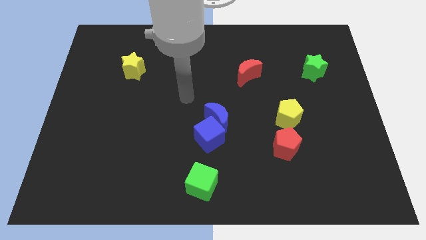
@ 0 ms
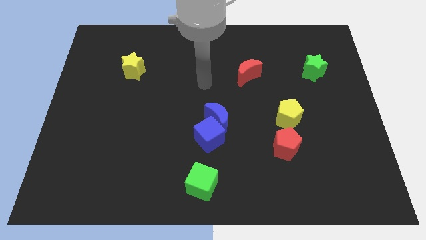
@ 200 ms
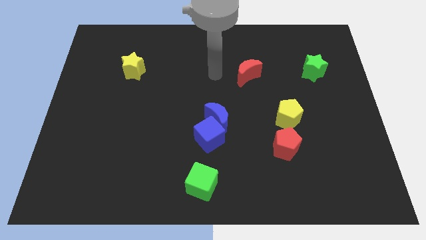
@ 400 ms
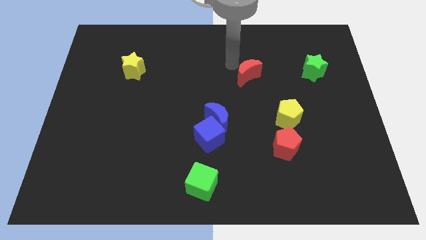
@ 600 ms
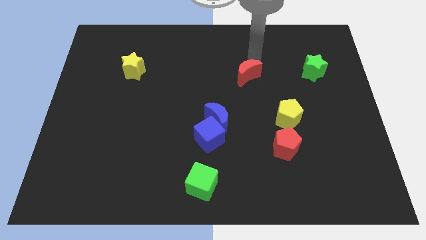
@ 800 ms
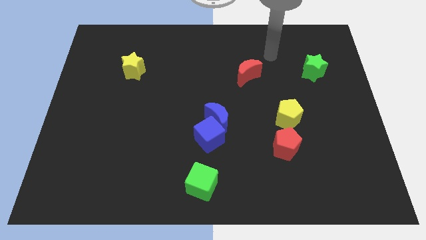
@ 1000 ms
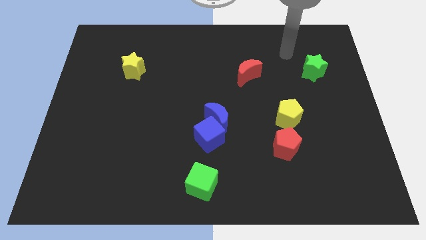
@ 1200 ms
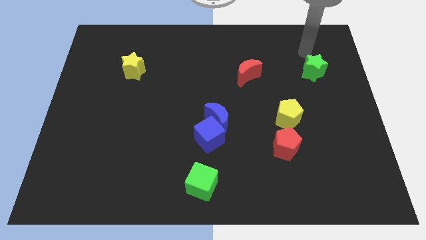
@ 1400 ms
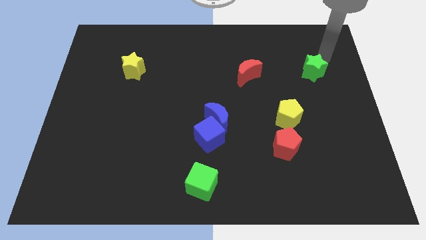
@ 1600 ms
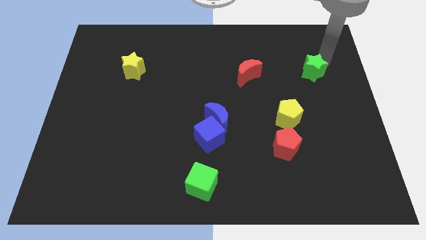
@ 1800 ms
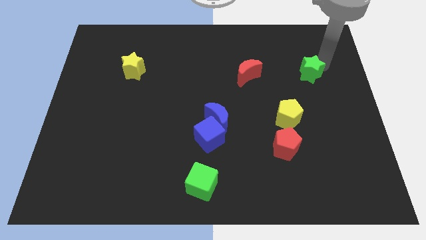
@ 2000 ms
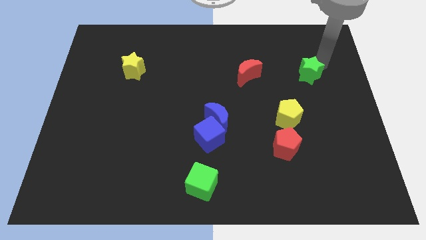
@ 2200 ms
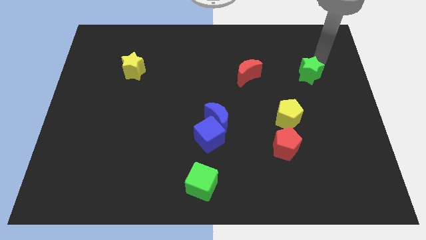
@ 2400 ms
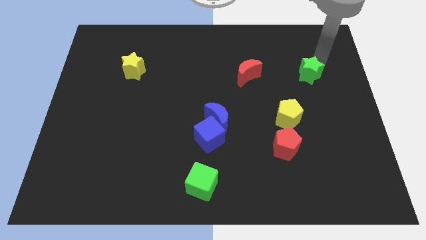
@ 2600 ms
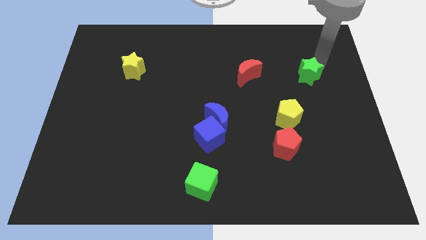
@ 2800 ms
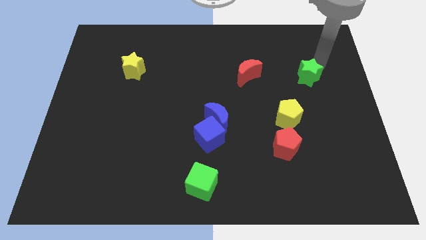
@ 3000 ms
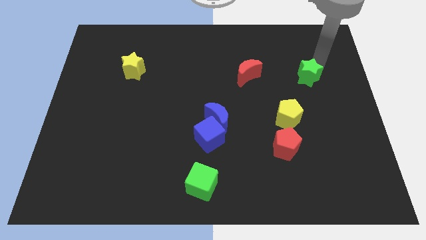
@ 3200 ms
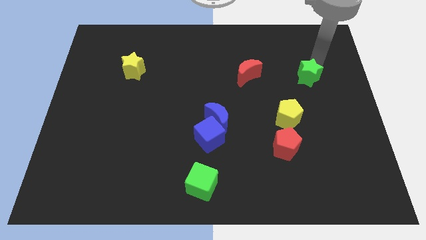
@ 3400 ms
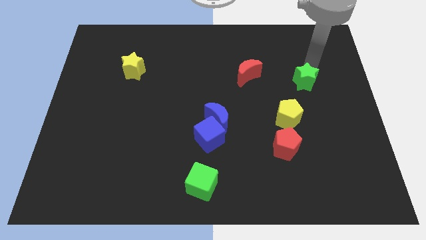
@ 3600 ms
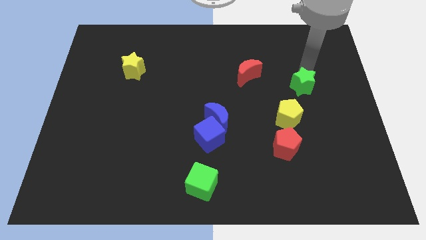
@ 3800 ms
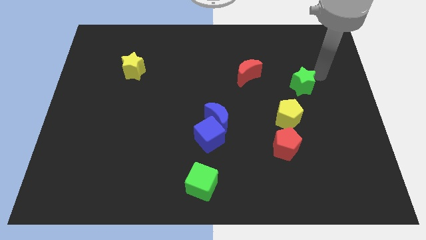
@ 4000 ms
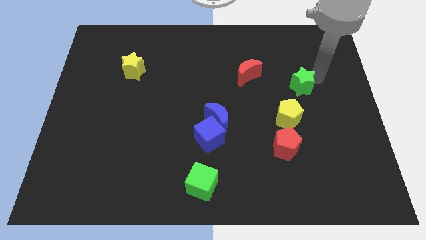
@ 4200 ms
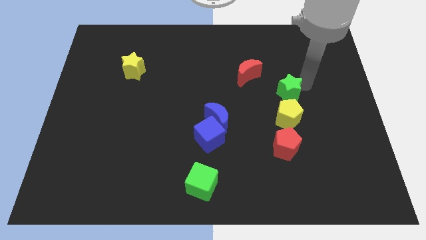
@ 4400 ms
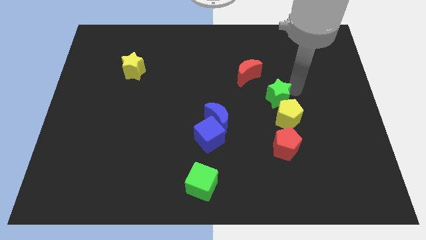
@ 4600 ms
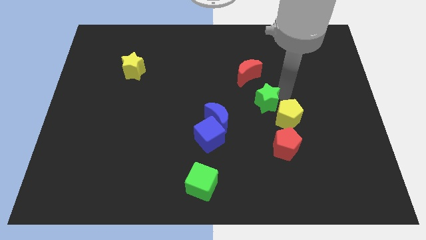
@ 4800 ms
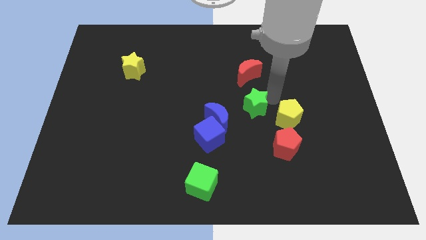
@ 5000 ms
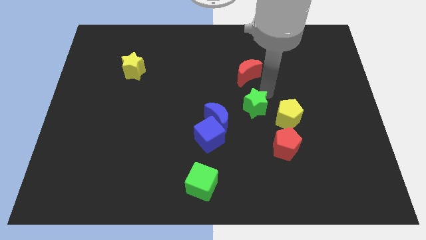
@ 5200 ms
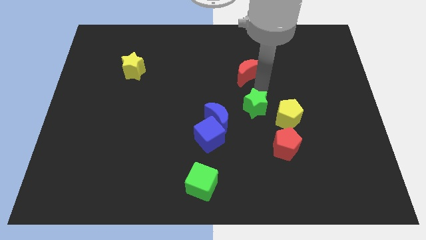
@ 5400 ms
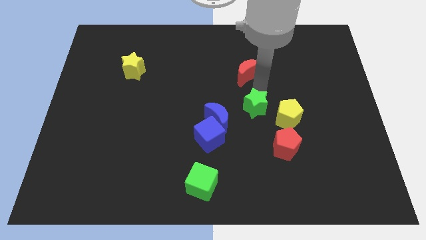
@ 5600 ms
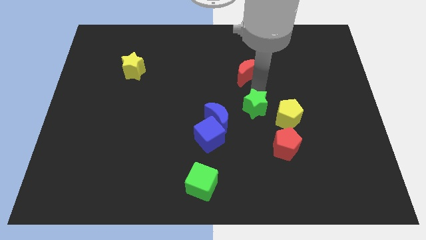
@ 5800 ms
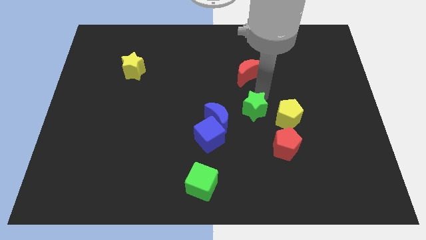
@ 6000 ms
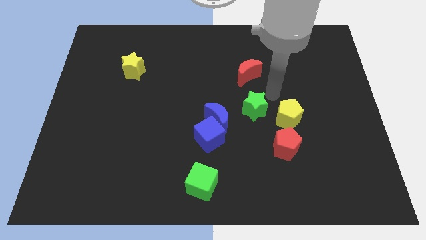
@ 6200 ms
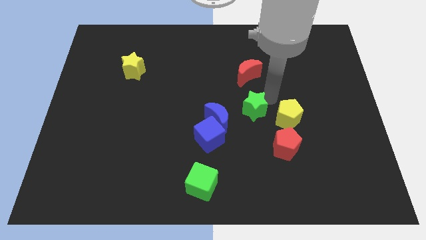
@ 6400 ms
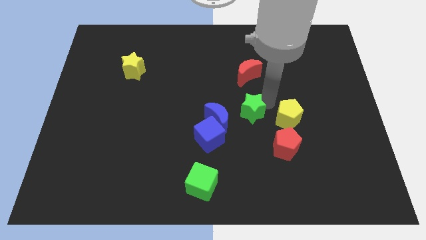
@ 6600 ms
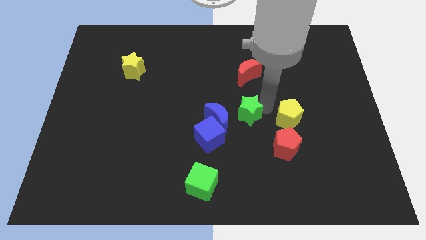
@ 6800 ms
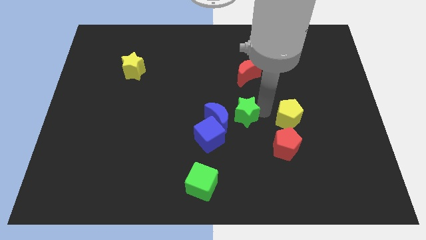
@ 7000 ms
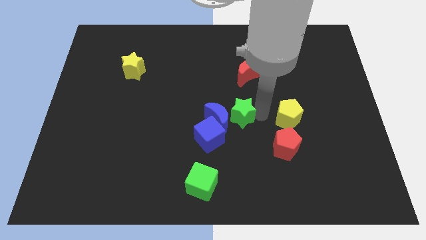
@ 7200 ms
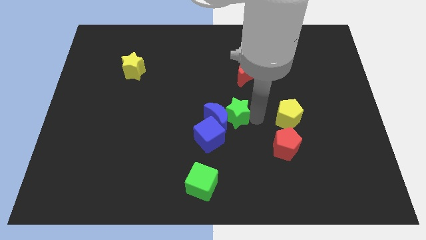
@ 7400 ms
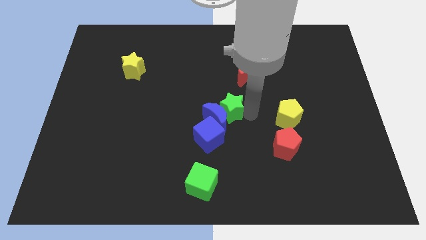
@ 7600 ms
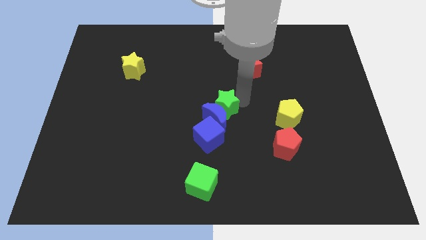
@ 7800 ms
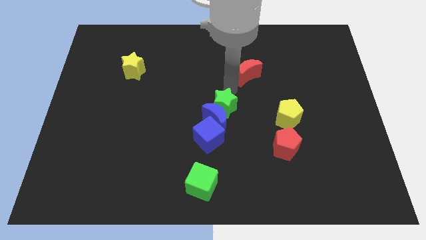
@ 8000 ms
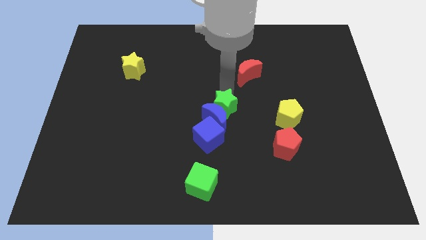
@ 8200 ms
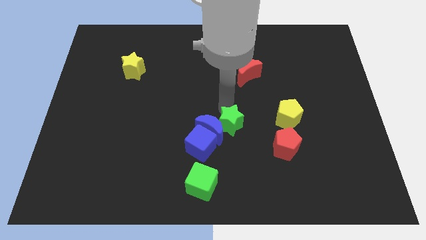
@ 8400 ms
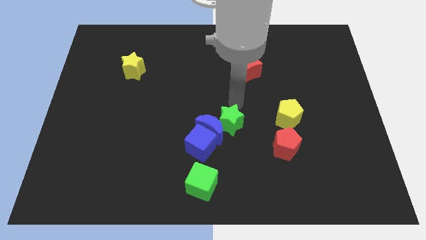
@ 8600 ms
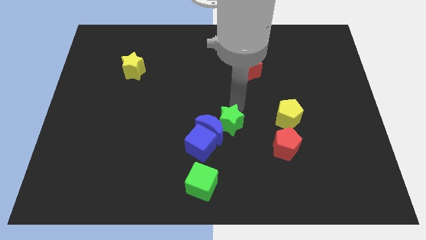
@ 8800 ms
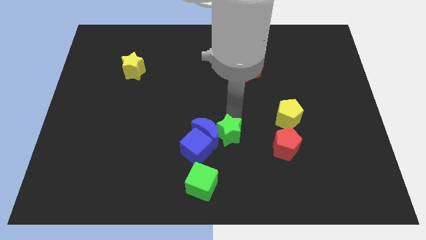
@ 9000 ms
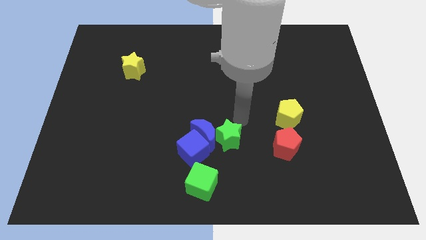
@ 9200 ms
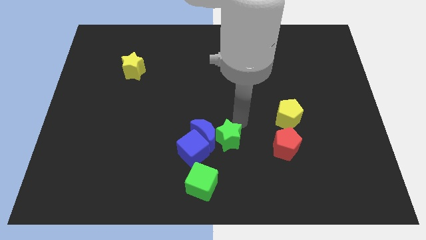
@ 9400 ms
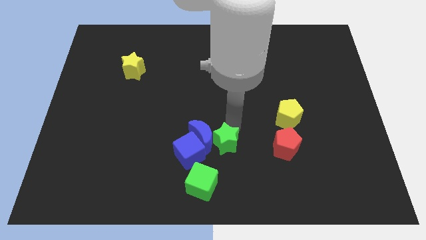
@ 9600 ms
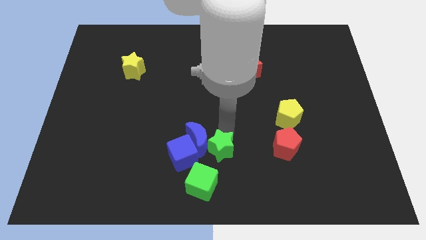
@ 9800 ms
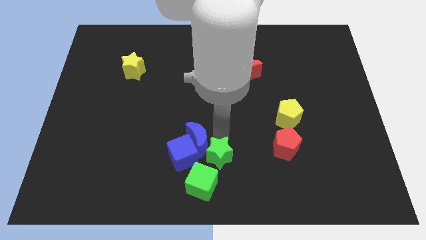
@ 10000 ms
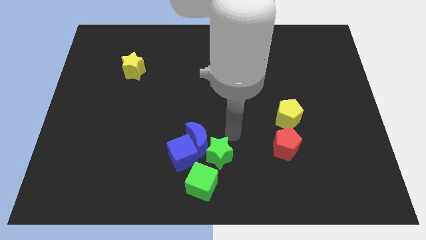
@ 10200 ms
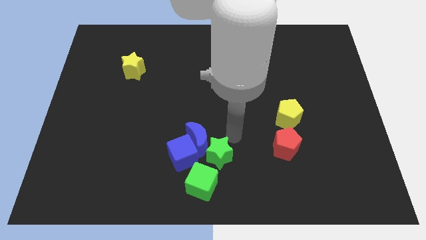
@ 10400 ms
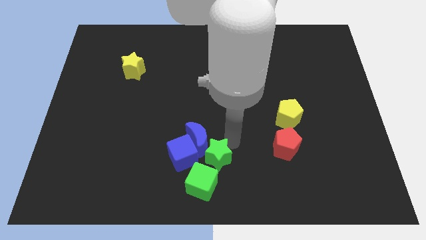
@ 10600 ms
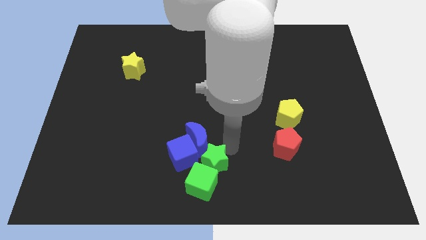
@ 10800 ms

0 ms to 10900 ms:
put the green star towards the green cube

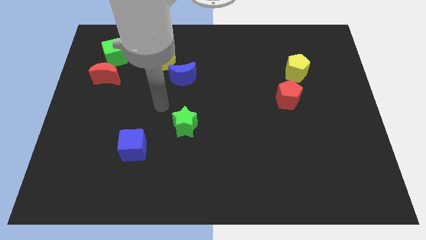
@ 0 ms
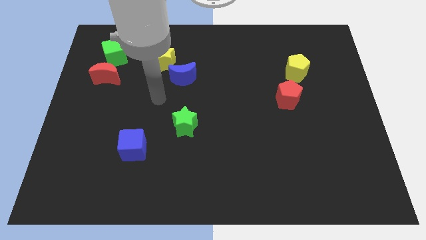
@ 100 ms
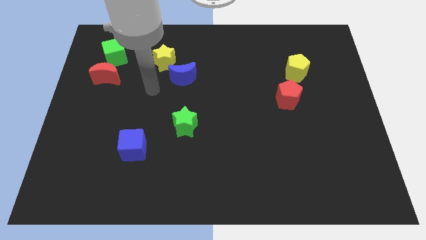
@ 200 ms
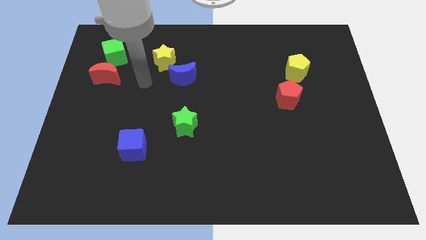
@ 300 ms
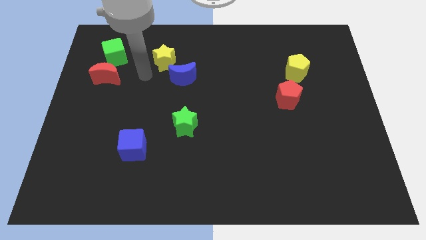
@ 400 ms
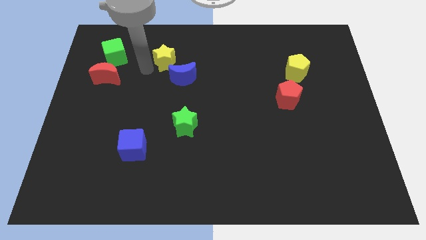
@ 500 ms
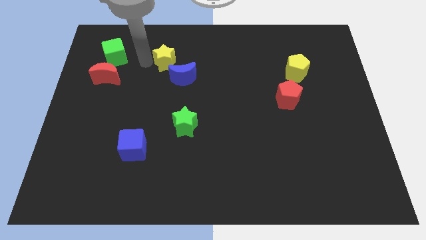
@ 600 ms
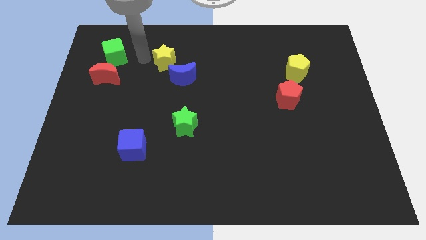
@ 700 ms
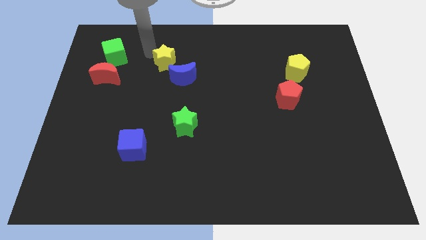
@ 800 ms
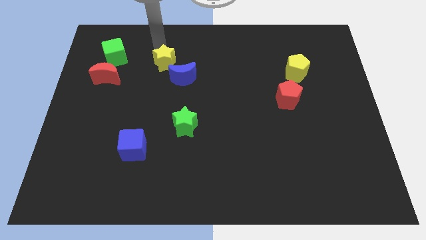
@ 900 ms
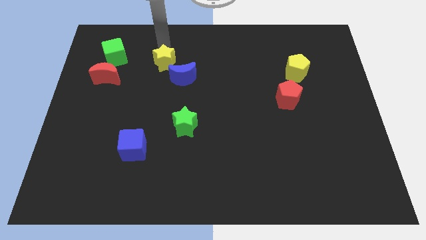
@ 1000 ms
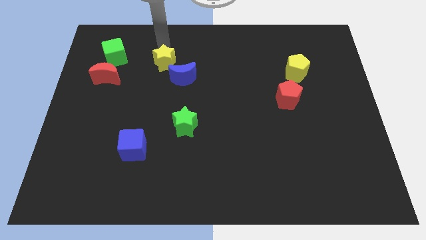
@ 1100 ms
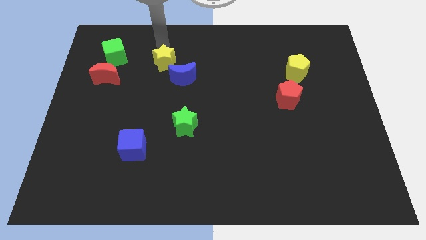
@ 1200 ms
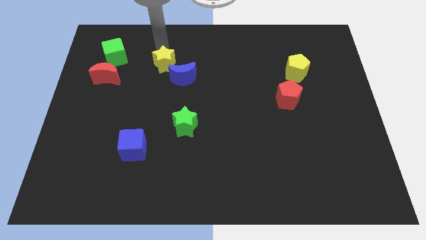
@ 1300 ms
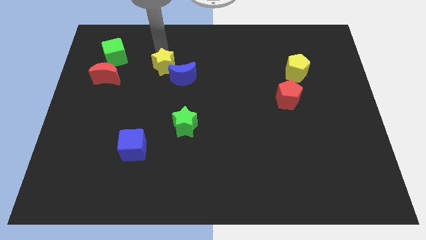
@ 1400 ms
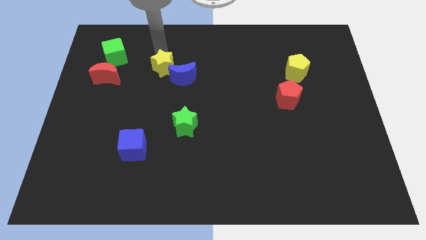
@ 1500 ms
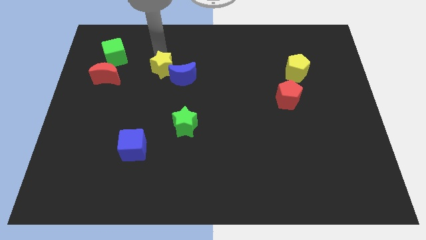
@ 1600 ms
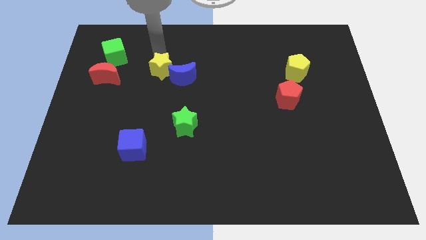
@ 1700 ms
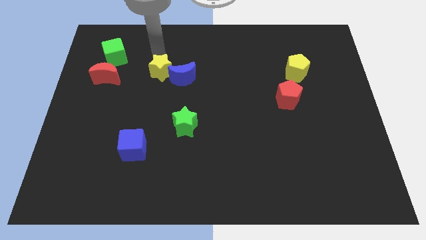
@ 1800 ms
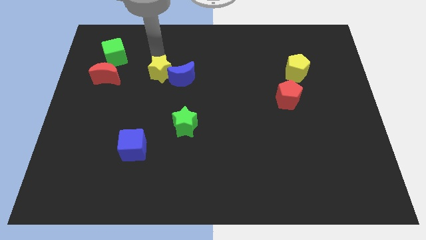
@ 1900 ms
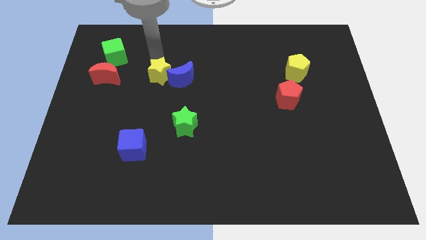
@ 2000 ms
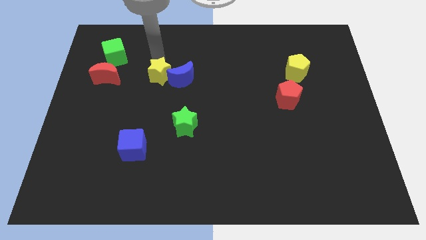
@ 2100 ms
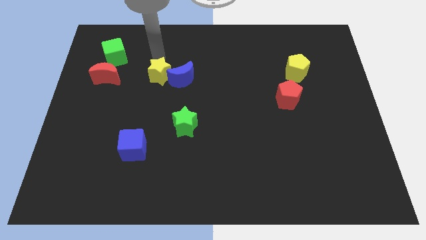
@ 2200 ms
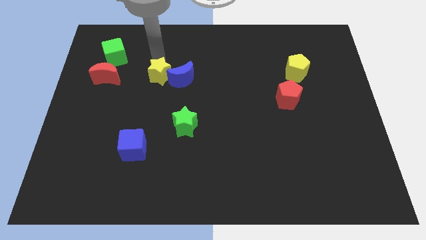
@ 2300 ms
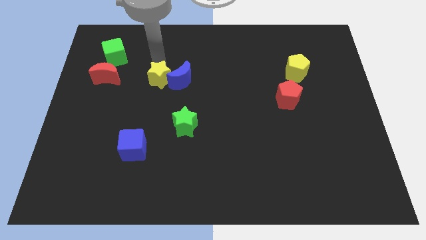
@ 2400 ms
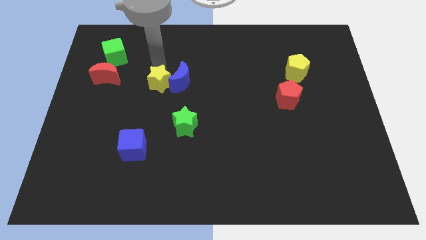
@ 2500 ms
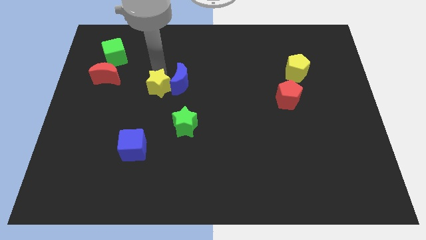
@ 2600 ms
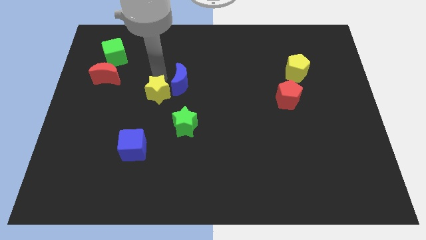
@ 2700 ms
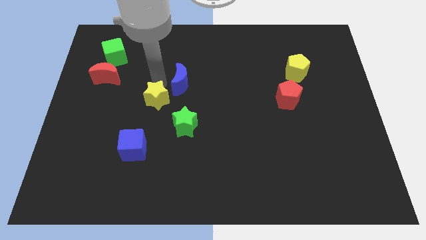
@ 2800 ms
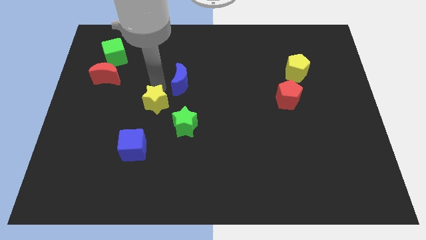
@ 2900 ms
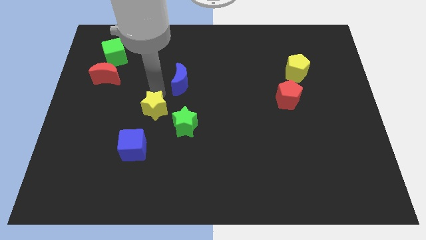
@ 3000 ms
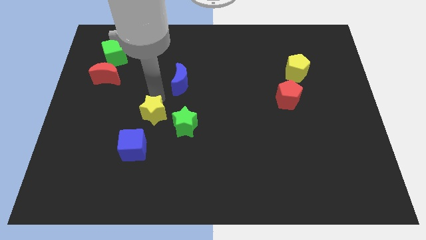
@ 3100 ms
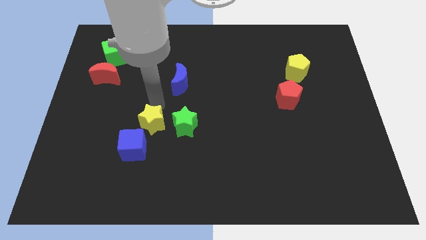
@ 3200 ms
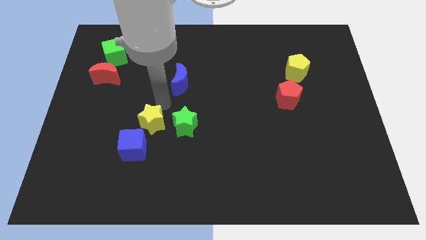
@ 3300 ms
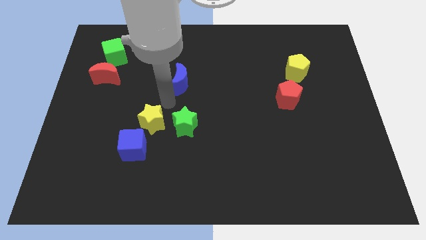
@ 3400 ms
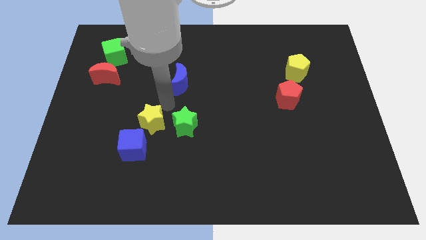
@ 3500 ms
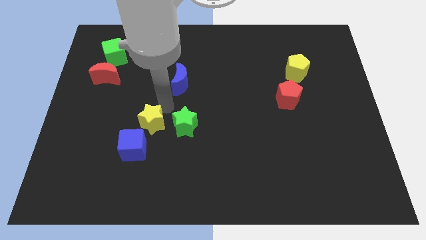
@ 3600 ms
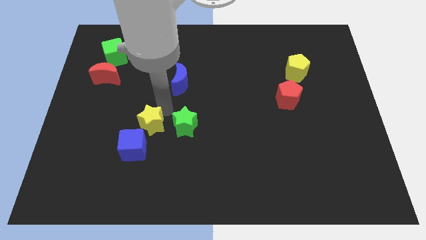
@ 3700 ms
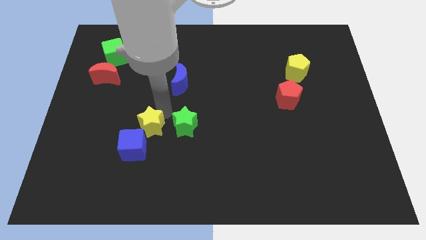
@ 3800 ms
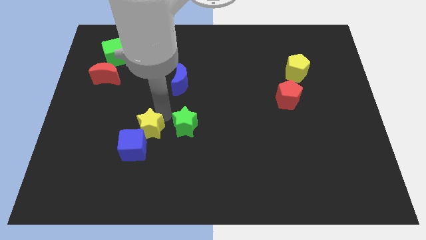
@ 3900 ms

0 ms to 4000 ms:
put the yellow star close to the blue cube
